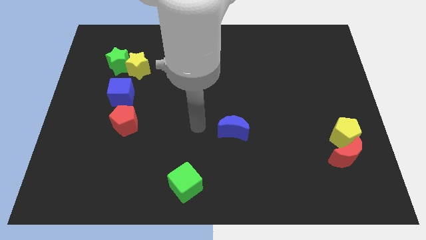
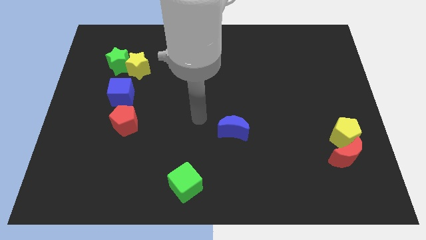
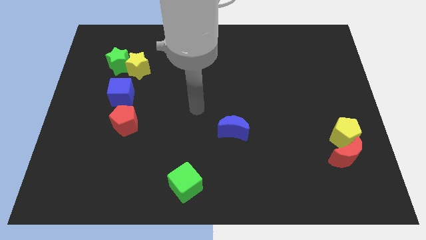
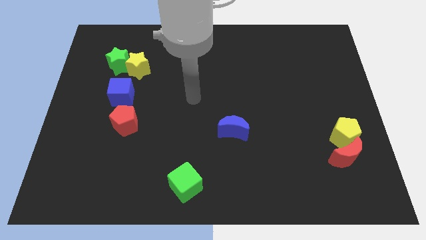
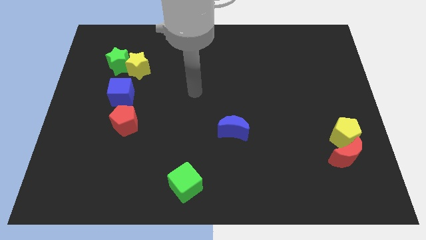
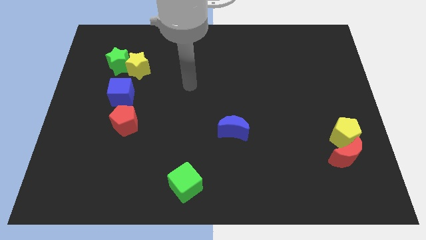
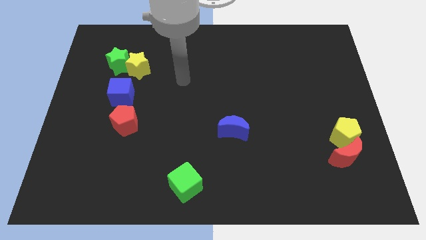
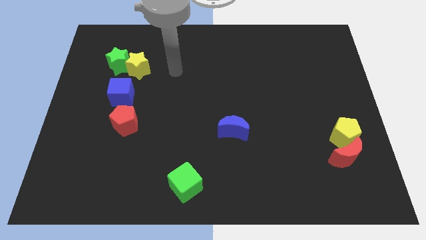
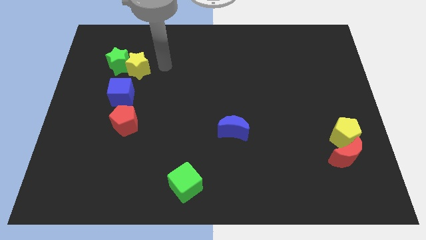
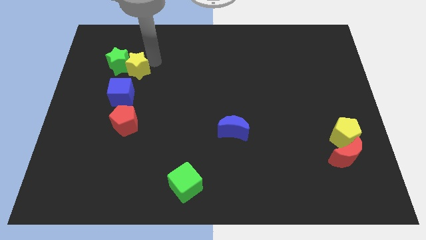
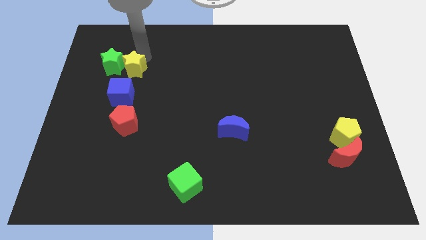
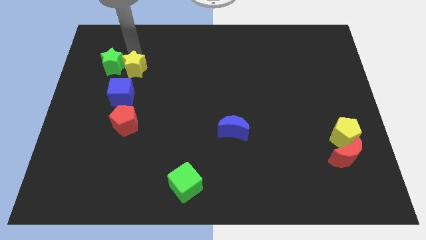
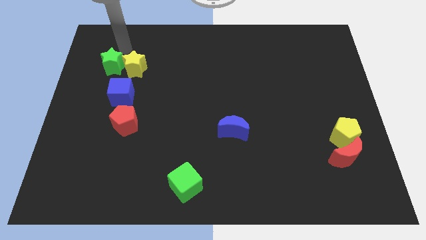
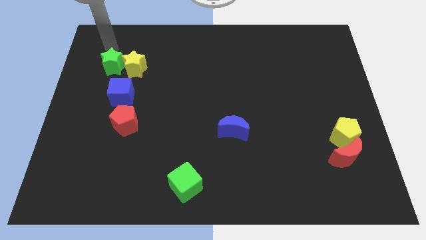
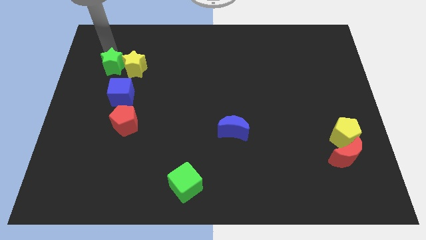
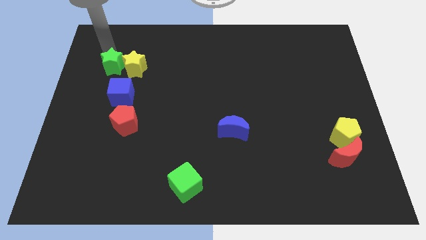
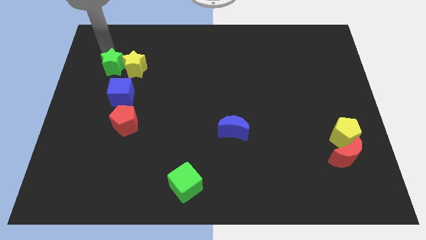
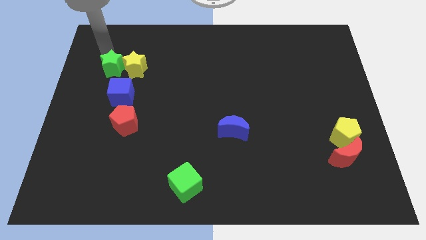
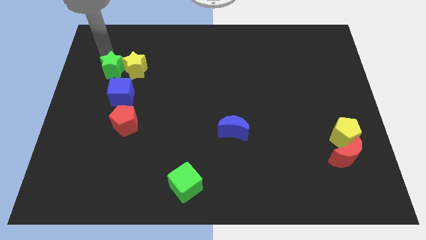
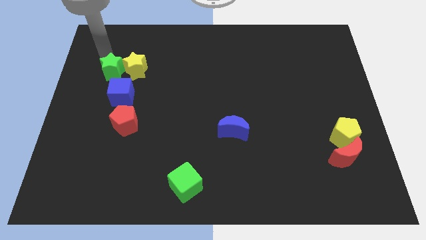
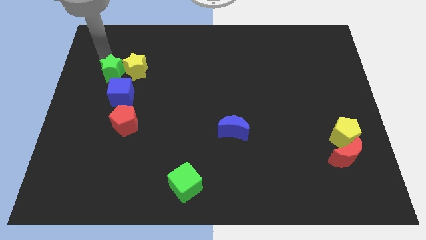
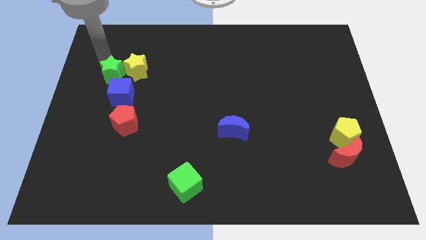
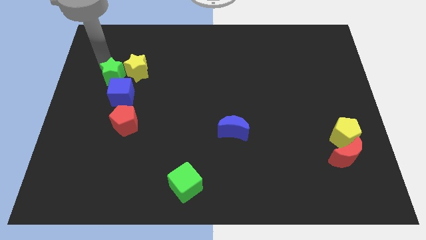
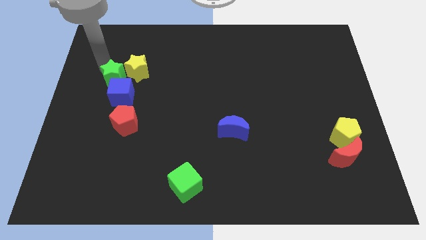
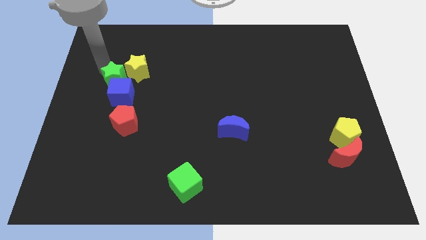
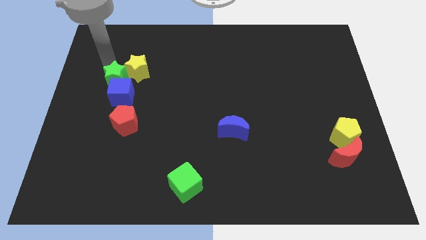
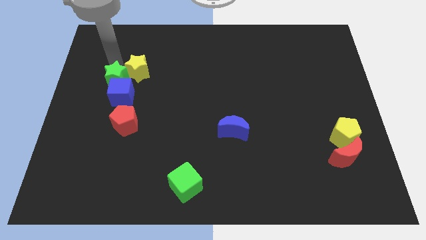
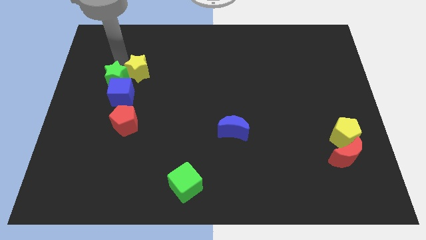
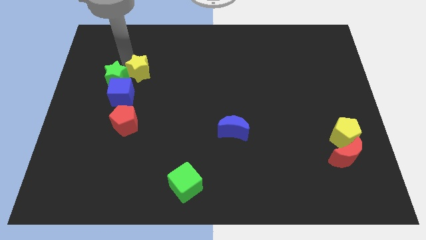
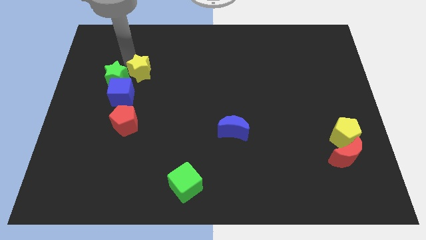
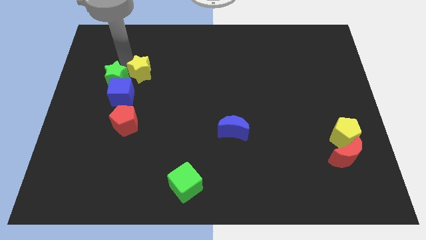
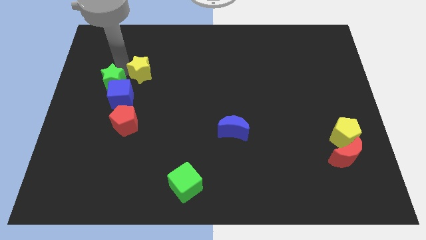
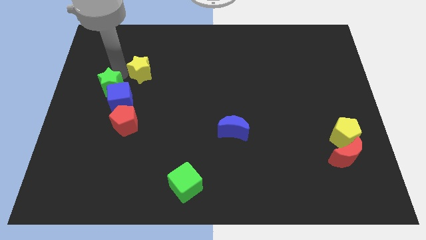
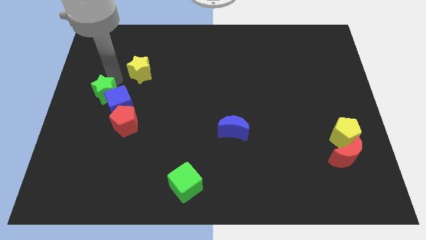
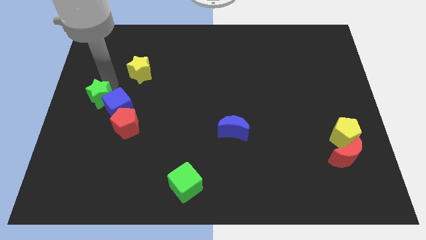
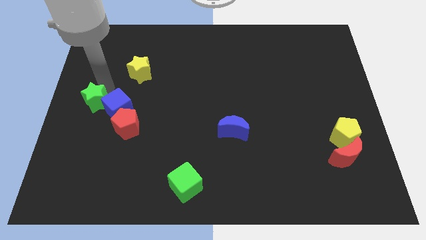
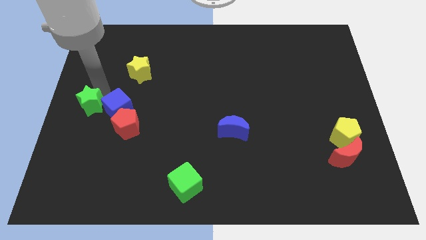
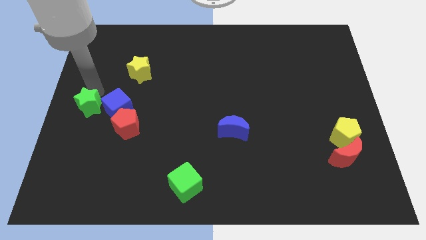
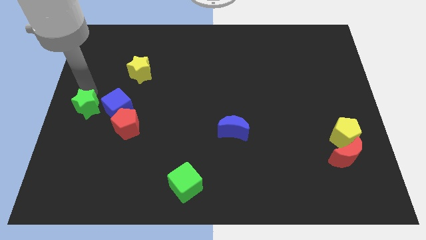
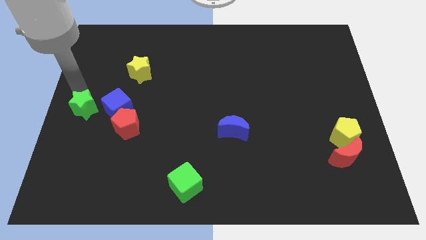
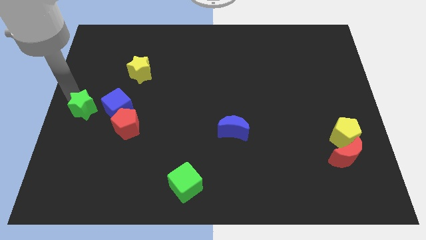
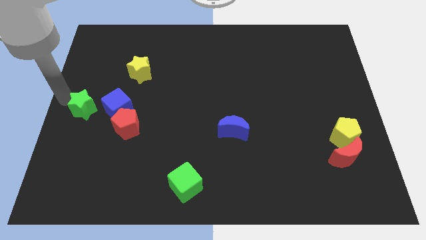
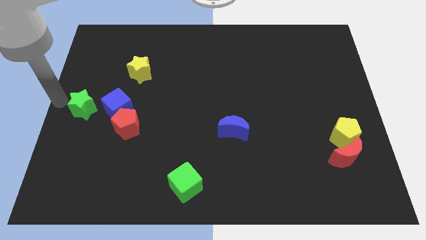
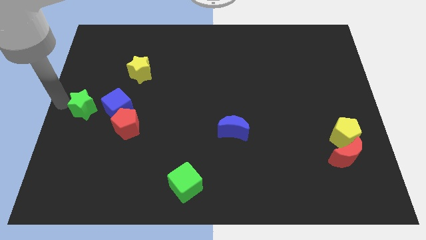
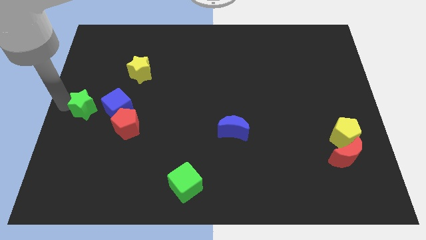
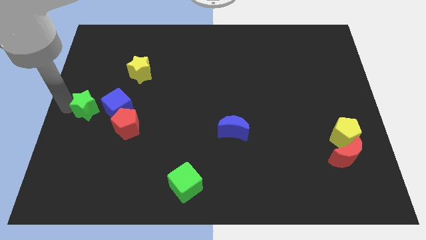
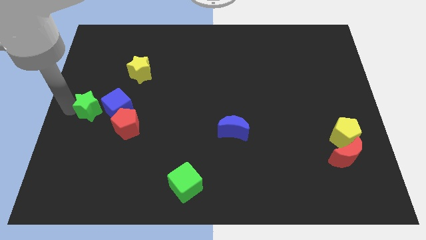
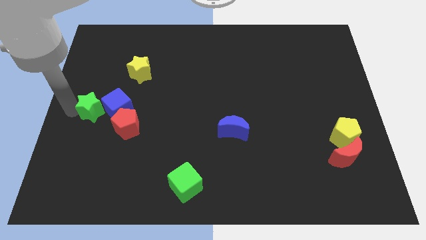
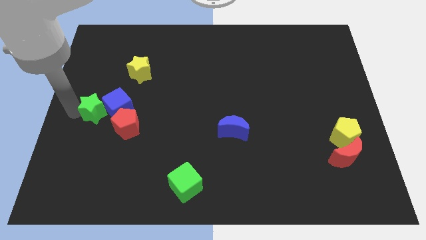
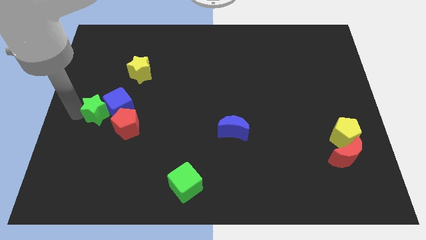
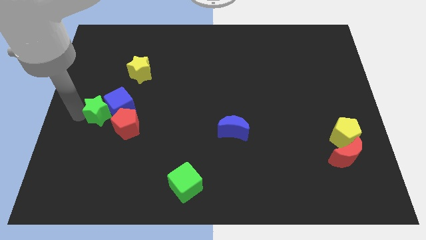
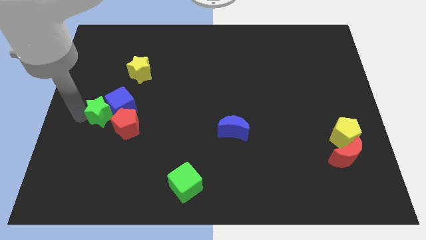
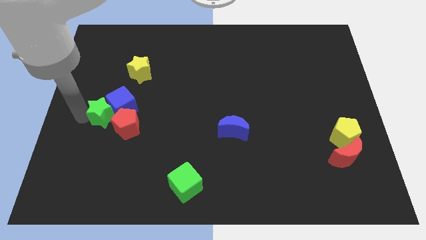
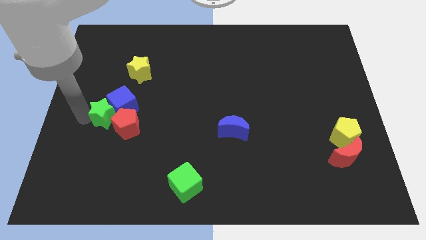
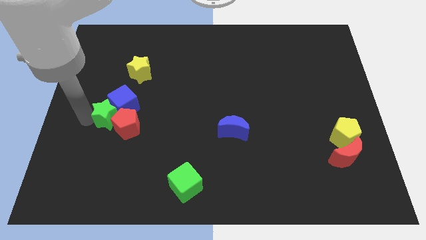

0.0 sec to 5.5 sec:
slide the green star close to the red pentagon

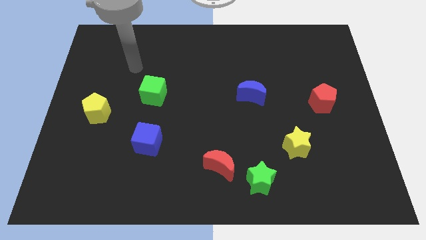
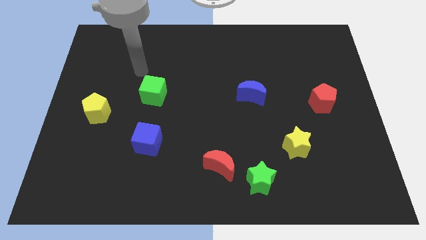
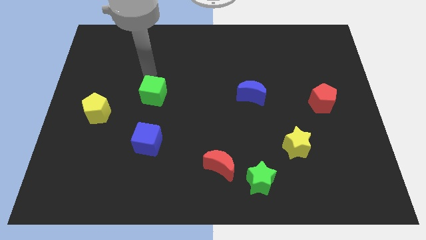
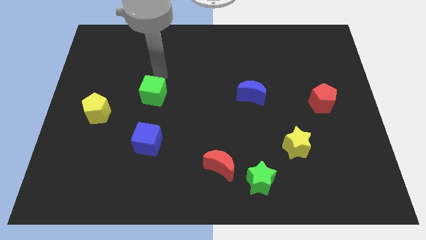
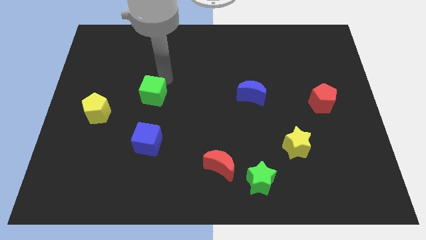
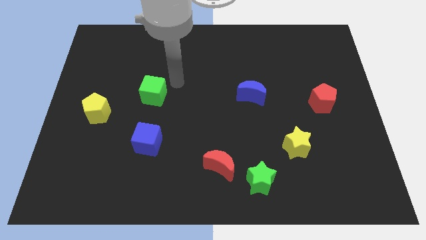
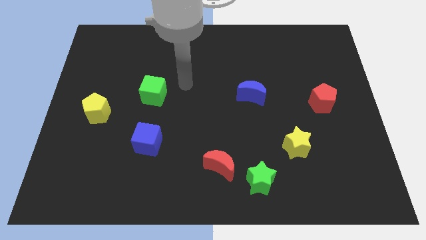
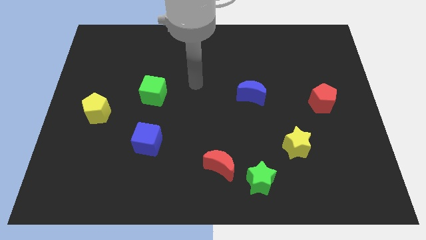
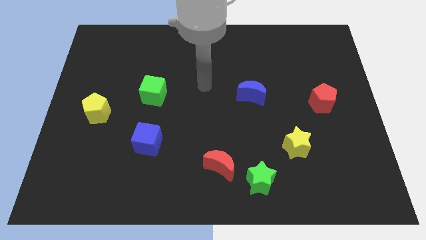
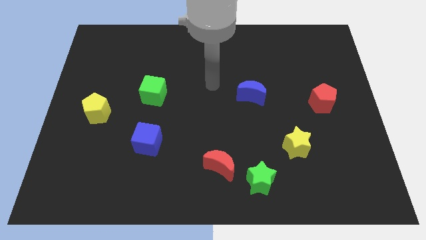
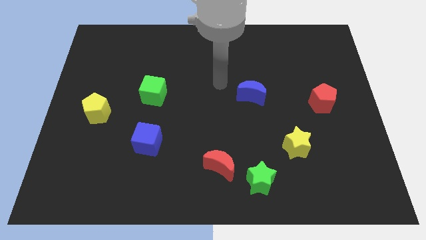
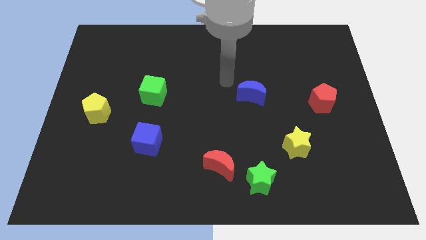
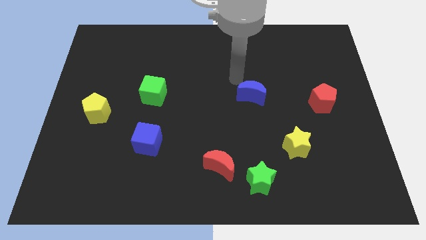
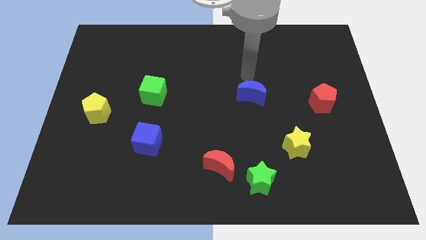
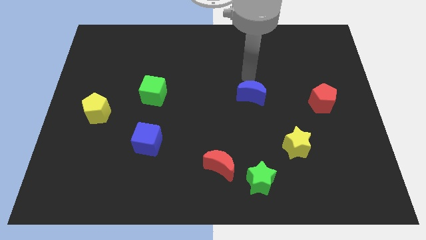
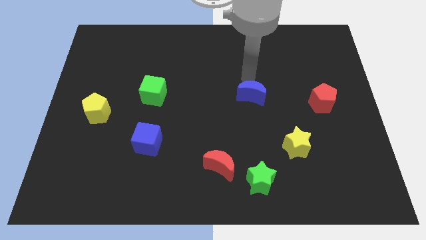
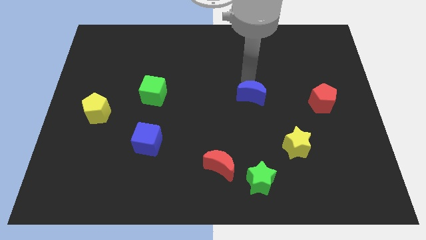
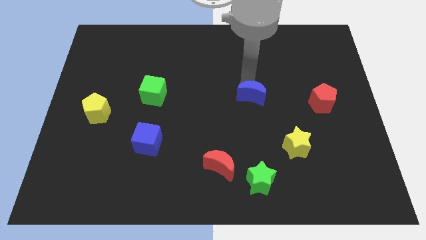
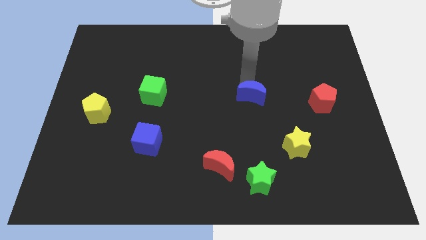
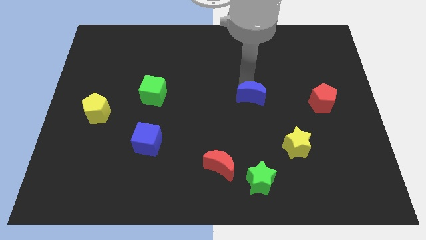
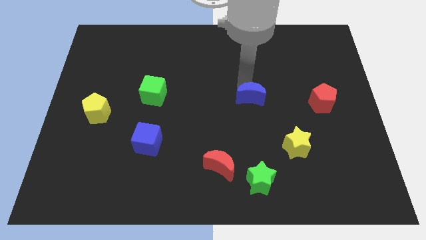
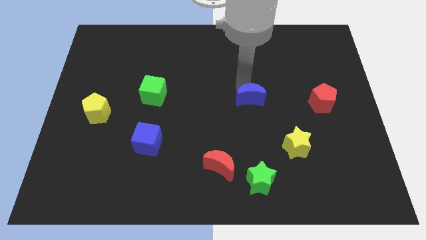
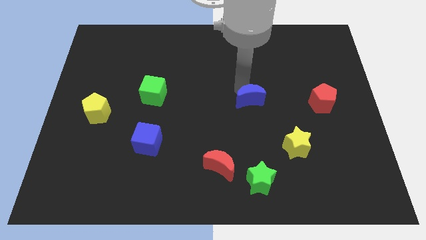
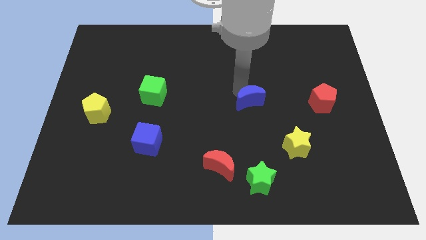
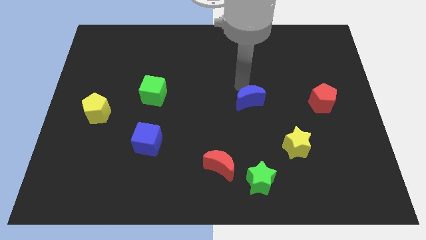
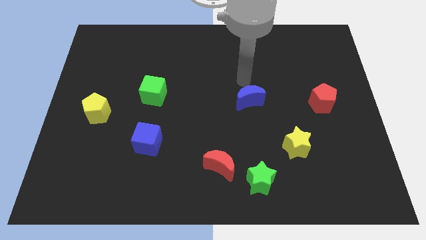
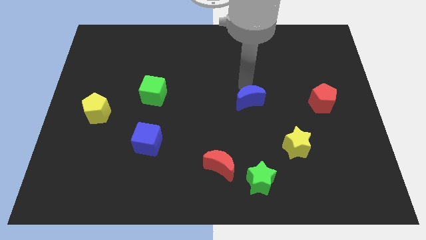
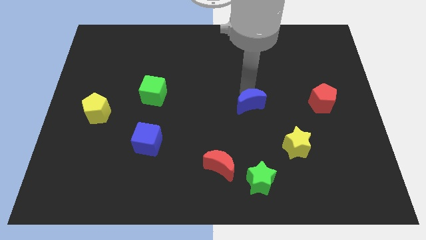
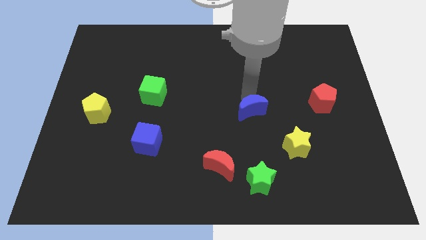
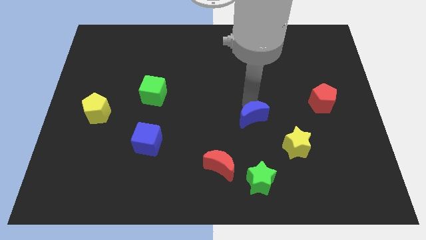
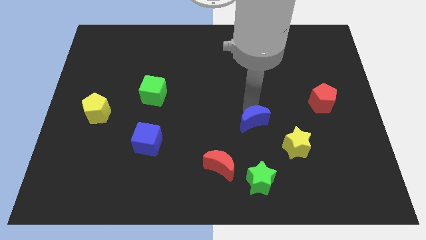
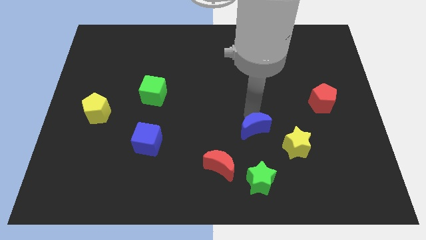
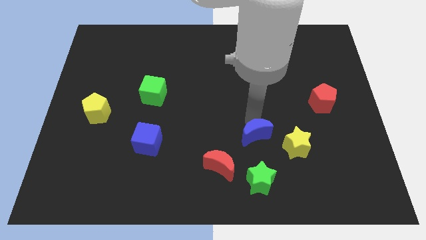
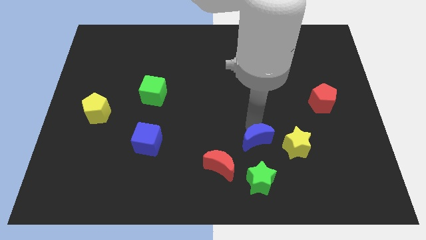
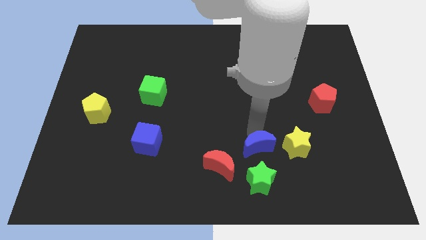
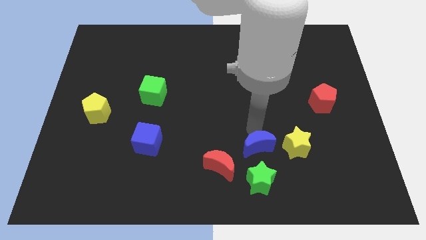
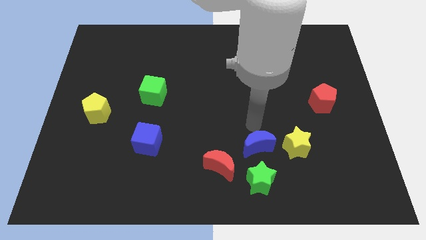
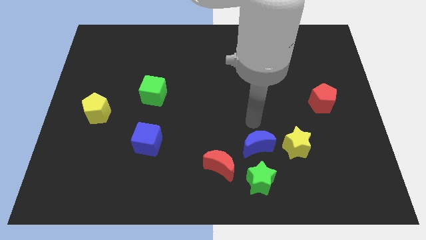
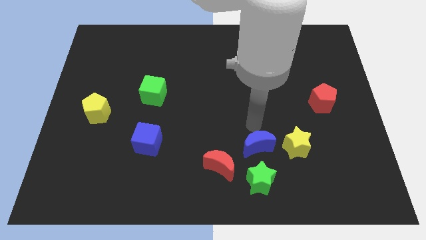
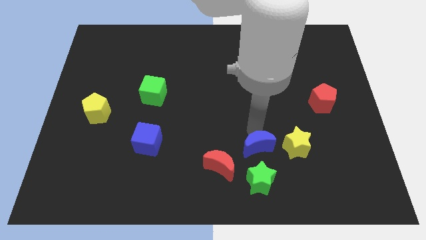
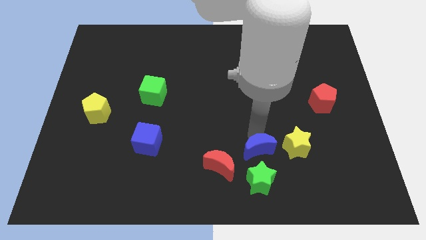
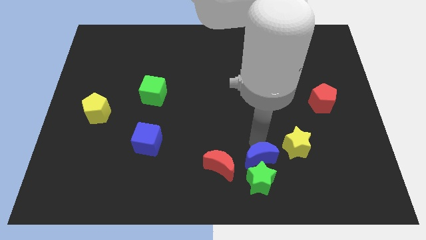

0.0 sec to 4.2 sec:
slide the blue moon to the green star
